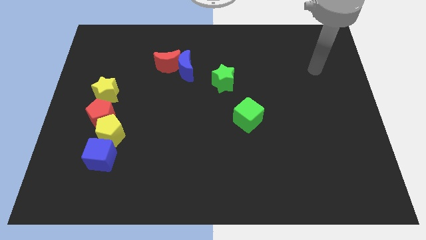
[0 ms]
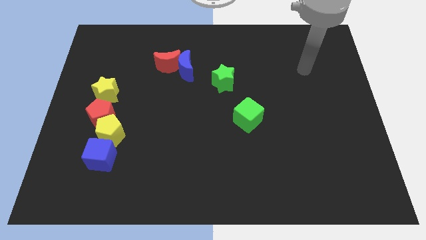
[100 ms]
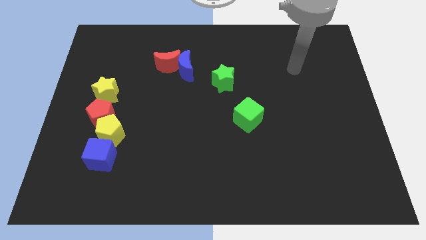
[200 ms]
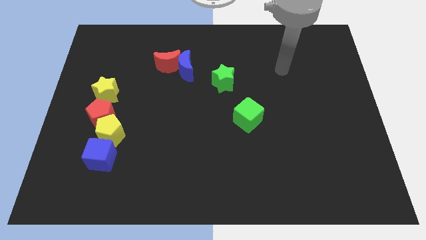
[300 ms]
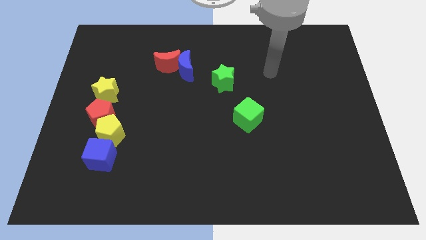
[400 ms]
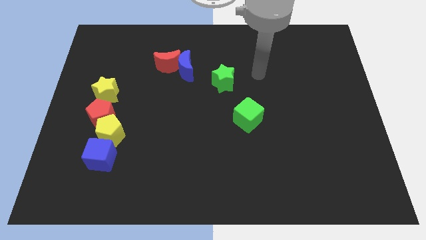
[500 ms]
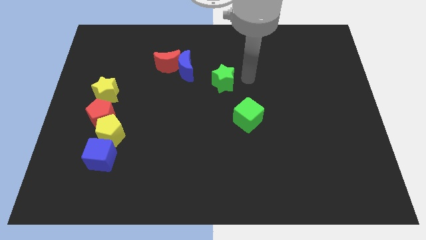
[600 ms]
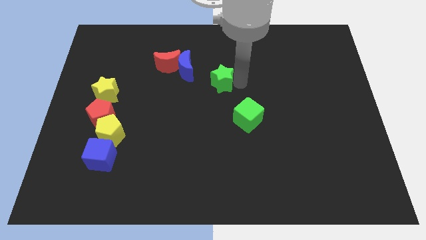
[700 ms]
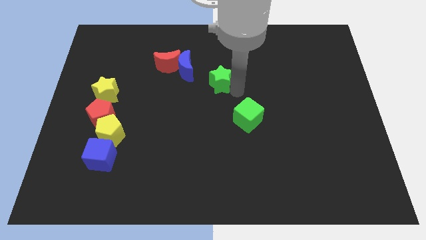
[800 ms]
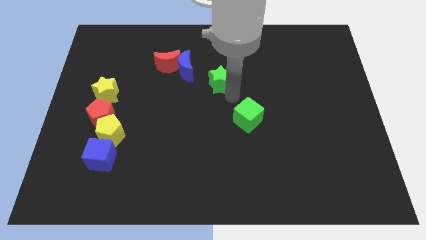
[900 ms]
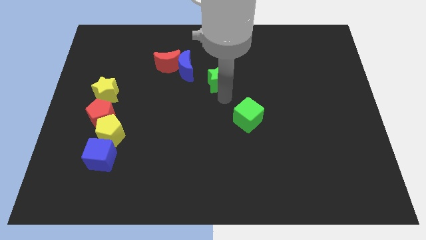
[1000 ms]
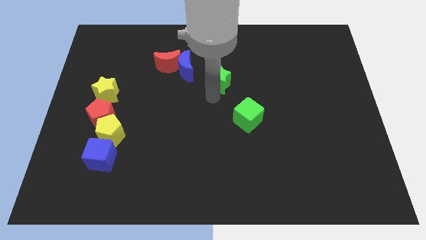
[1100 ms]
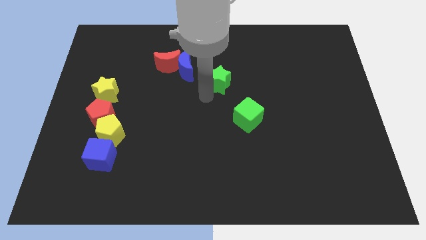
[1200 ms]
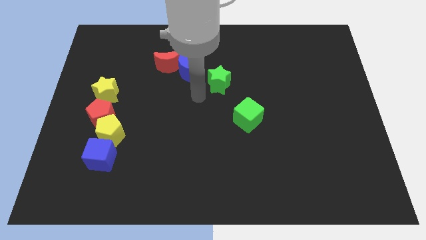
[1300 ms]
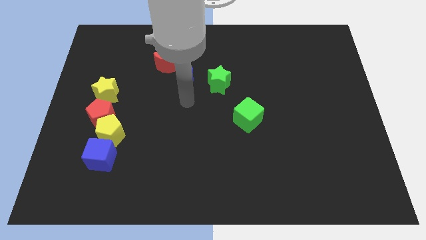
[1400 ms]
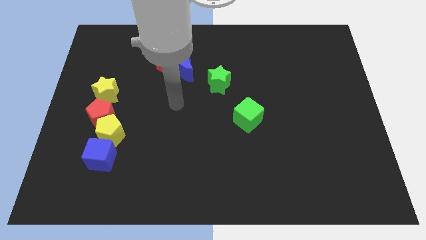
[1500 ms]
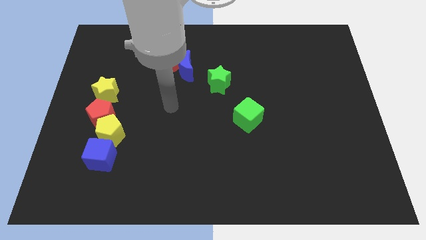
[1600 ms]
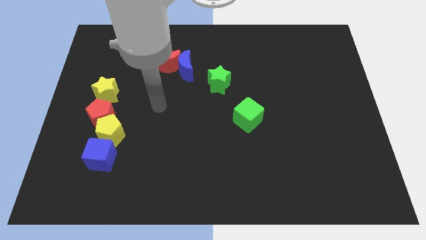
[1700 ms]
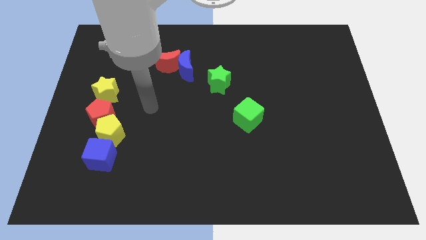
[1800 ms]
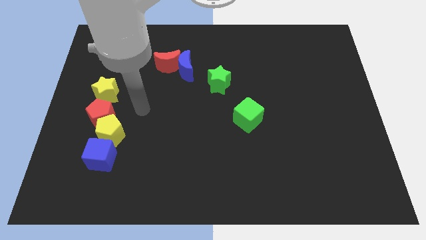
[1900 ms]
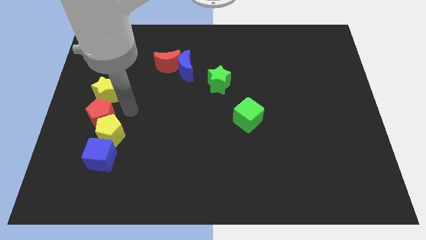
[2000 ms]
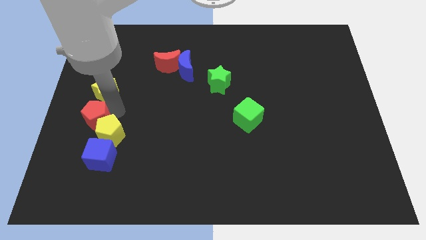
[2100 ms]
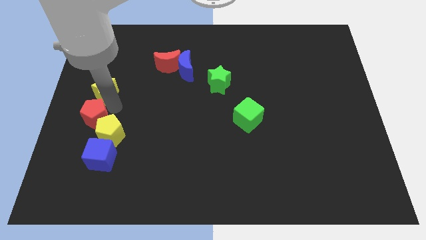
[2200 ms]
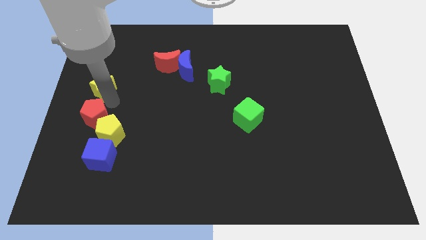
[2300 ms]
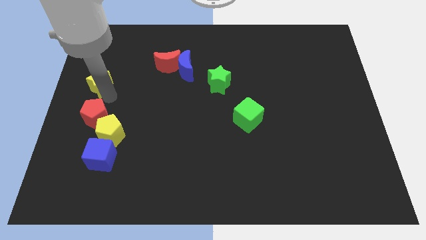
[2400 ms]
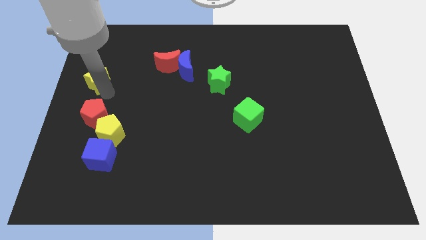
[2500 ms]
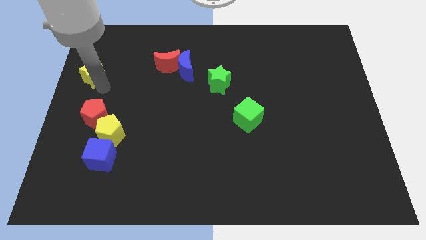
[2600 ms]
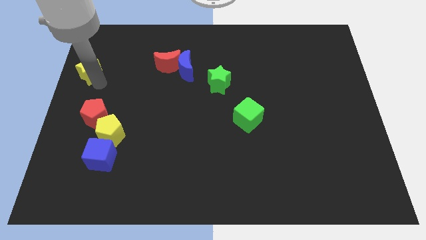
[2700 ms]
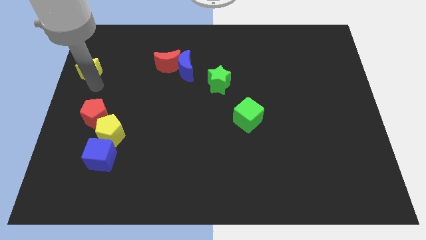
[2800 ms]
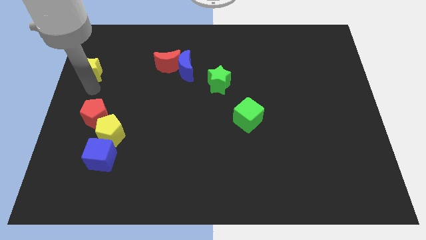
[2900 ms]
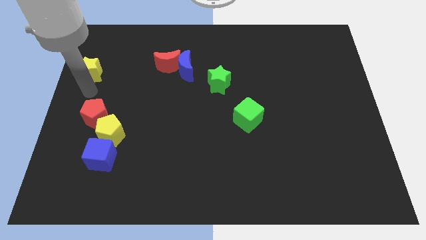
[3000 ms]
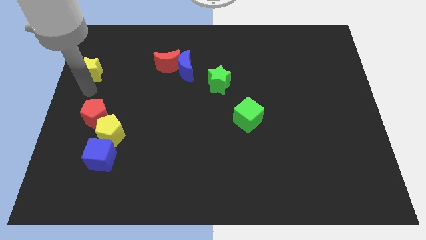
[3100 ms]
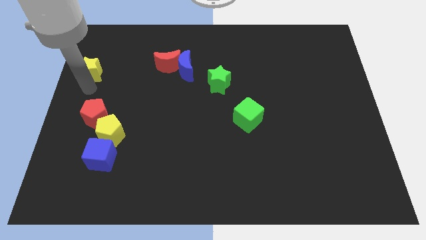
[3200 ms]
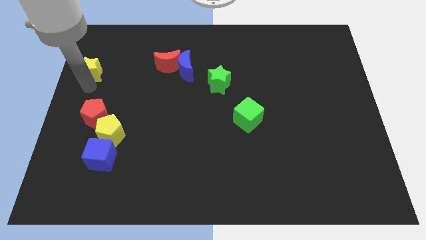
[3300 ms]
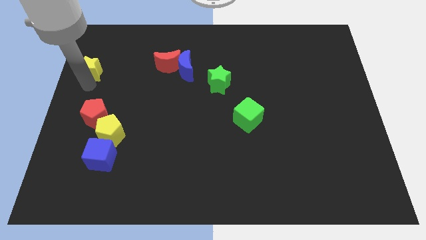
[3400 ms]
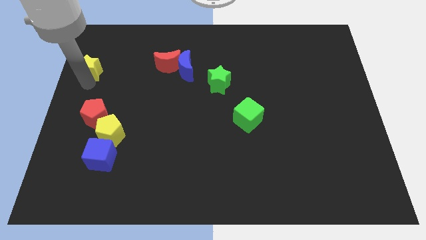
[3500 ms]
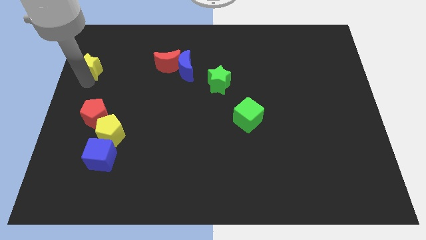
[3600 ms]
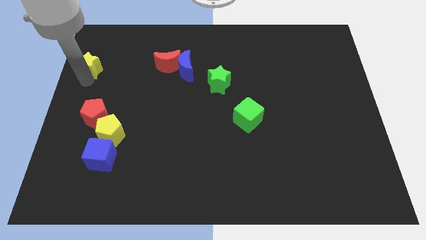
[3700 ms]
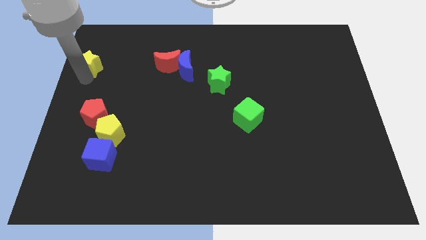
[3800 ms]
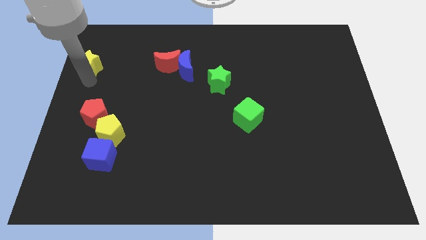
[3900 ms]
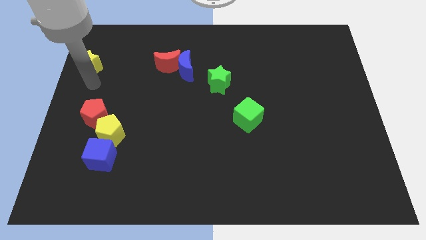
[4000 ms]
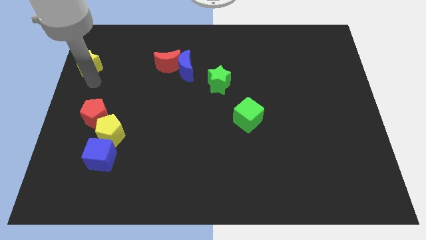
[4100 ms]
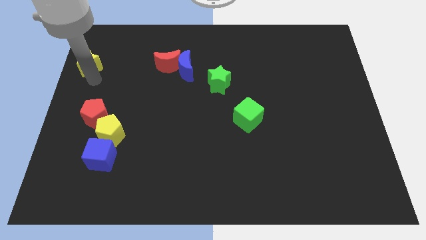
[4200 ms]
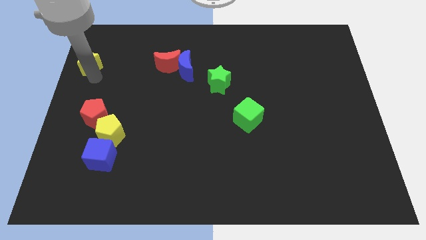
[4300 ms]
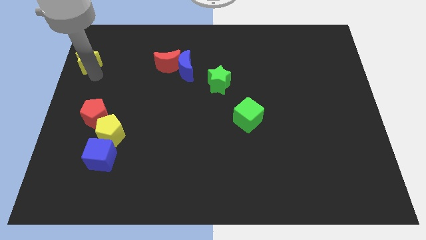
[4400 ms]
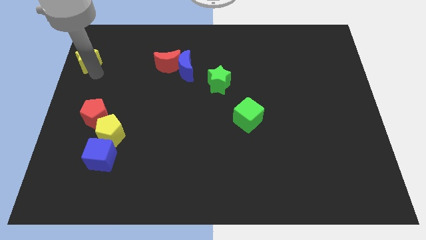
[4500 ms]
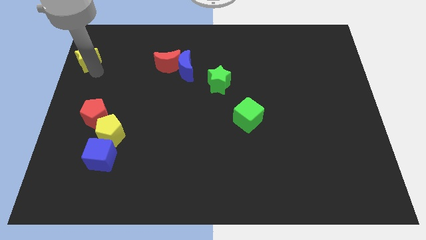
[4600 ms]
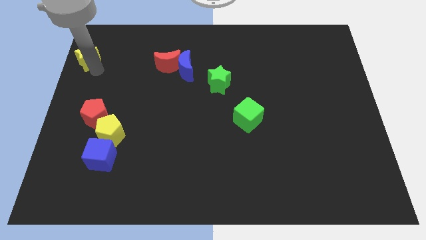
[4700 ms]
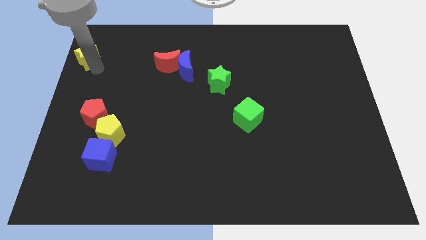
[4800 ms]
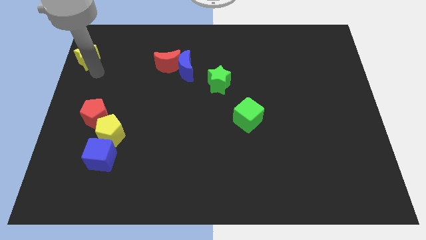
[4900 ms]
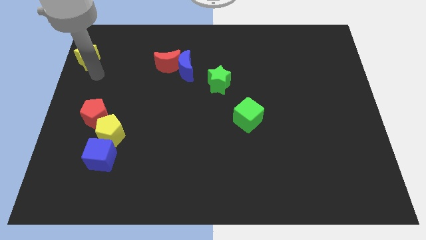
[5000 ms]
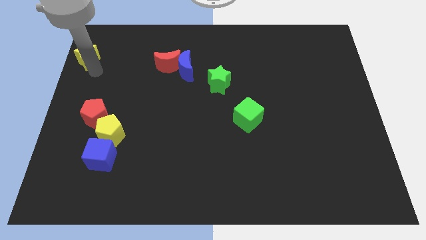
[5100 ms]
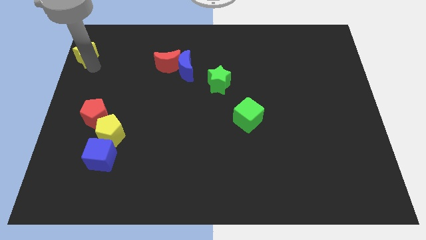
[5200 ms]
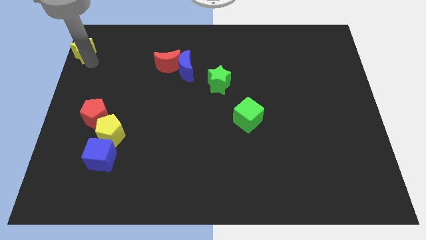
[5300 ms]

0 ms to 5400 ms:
move the yellow star to the upper left corner

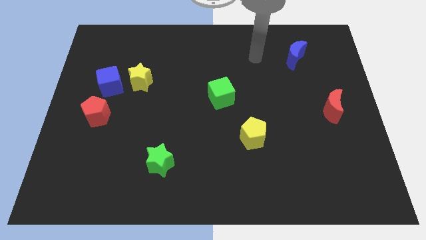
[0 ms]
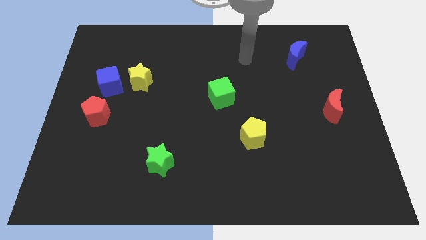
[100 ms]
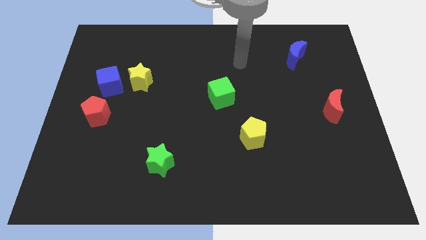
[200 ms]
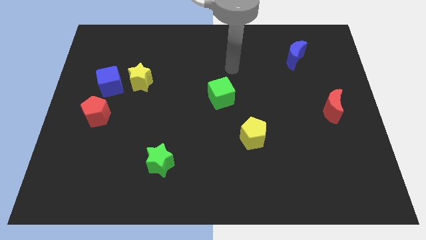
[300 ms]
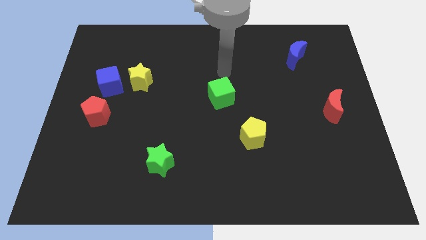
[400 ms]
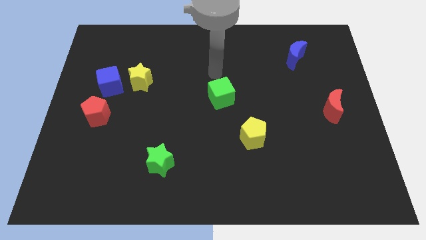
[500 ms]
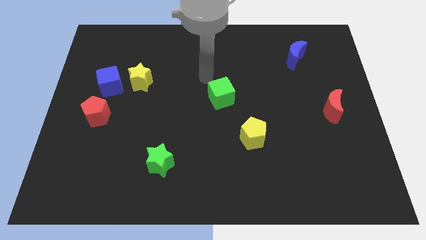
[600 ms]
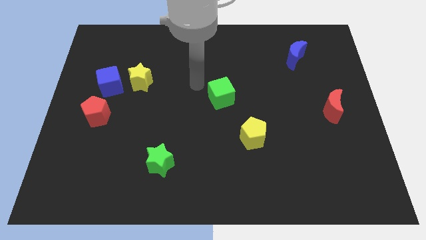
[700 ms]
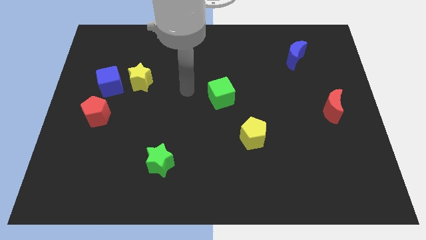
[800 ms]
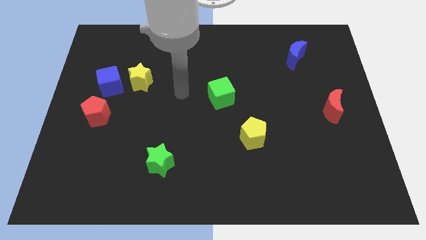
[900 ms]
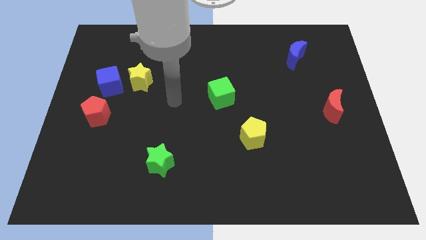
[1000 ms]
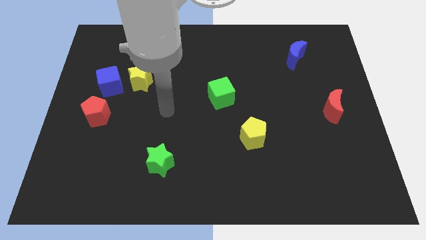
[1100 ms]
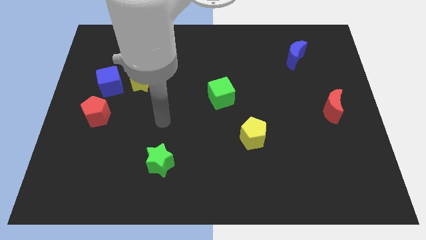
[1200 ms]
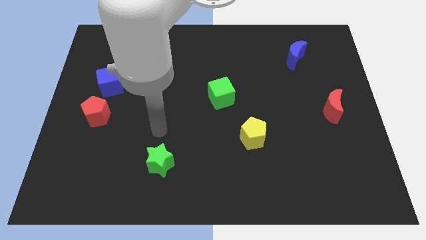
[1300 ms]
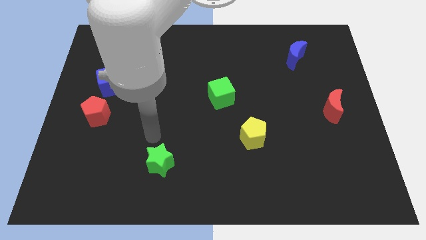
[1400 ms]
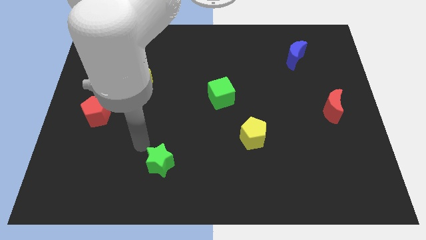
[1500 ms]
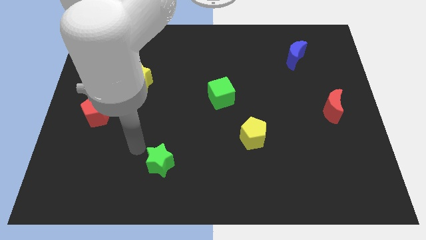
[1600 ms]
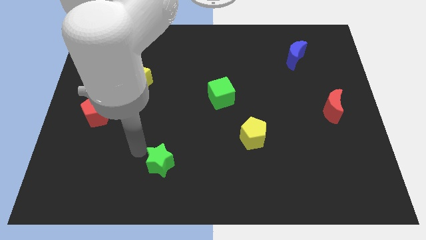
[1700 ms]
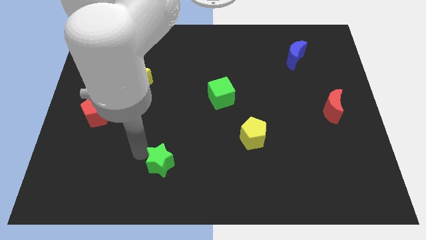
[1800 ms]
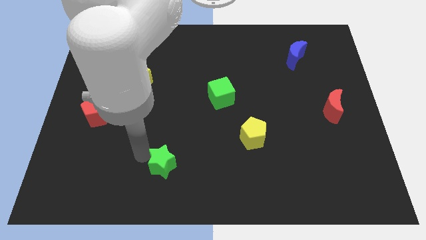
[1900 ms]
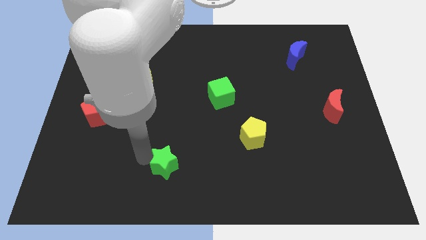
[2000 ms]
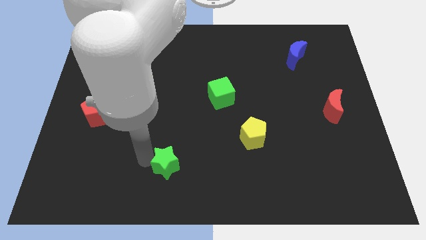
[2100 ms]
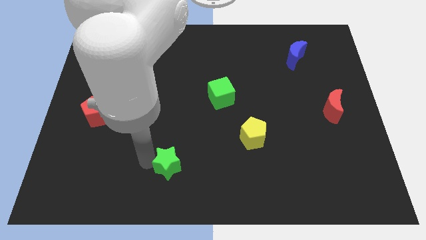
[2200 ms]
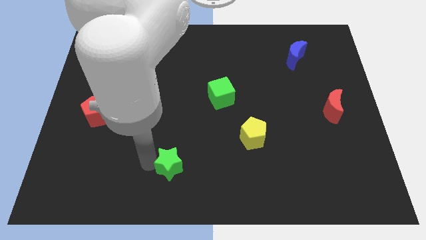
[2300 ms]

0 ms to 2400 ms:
move the green star to the bottom
